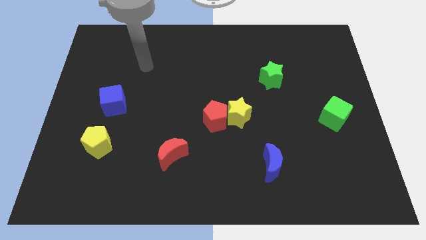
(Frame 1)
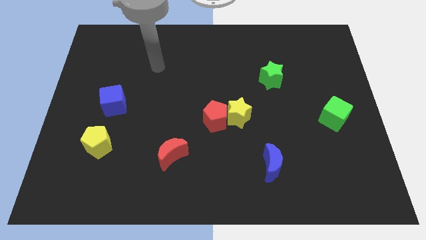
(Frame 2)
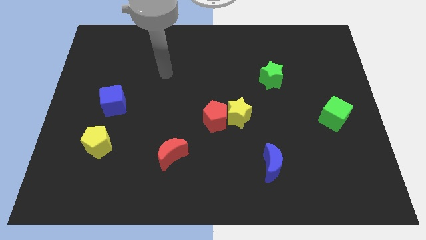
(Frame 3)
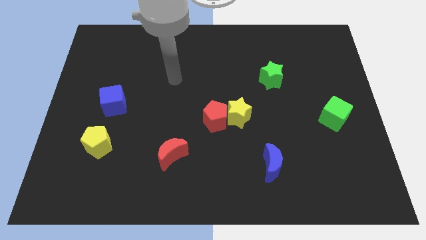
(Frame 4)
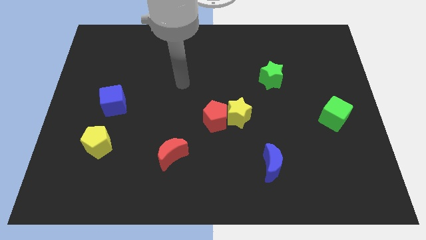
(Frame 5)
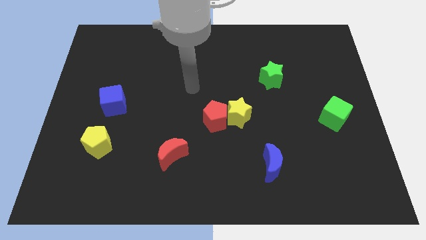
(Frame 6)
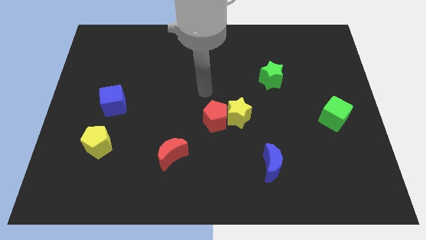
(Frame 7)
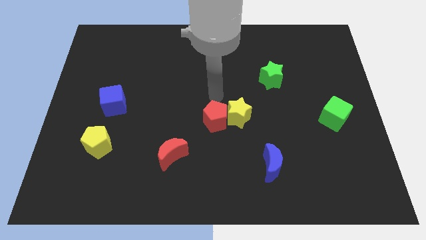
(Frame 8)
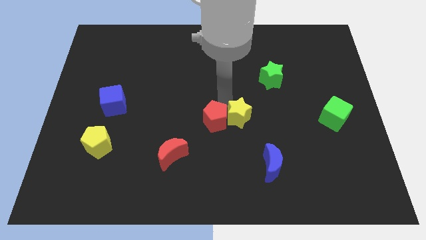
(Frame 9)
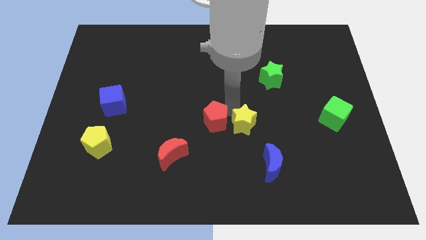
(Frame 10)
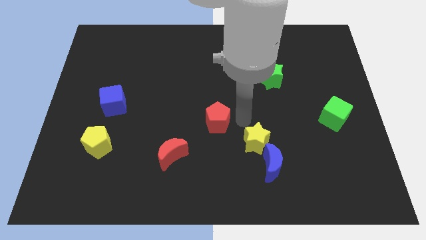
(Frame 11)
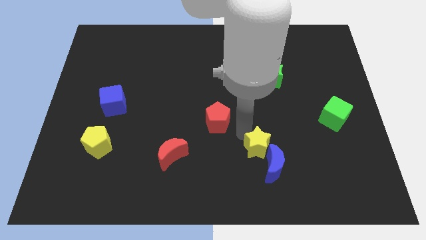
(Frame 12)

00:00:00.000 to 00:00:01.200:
pull the red pentagon apart from the yellow star

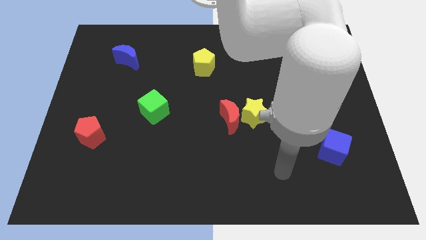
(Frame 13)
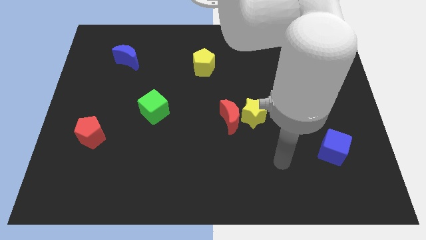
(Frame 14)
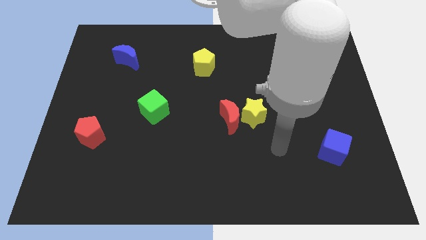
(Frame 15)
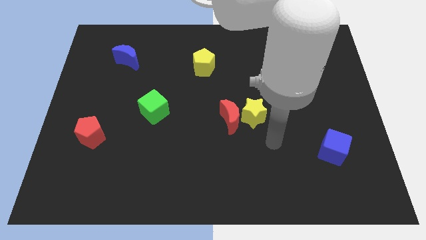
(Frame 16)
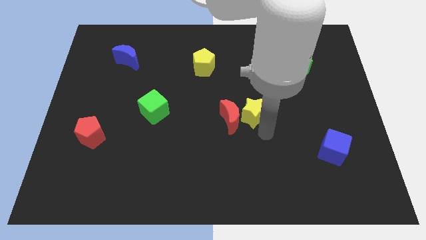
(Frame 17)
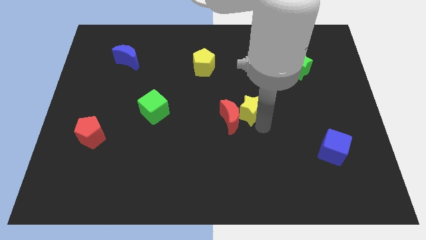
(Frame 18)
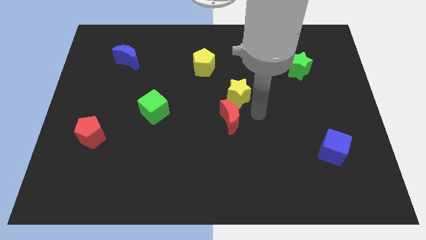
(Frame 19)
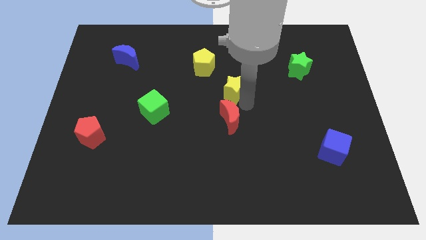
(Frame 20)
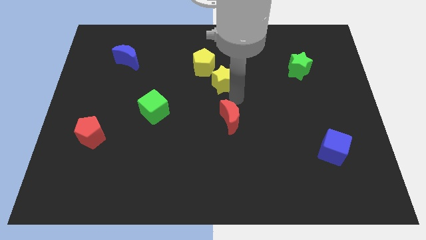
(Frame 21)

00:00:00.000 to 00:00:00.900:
pull the red moon apart from the yellow star

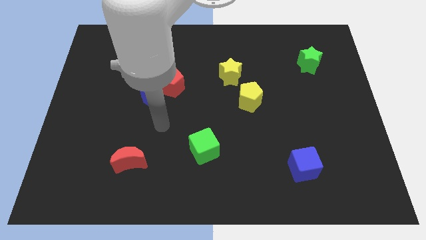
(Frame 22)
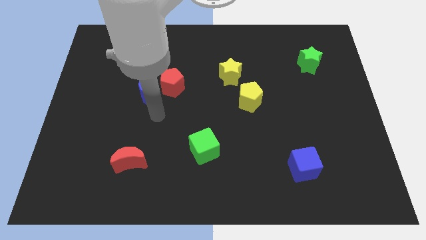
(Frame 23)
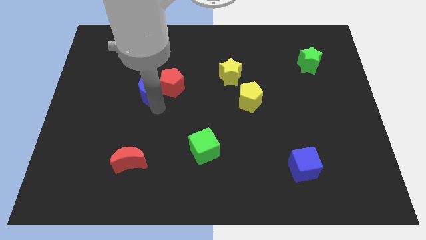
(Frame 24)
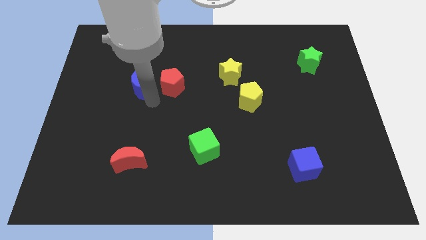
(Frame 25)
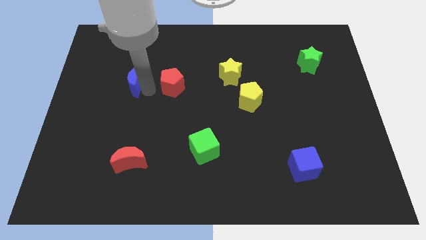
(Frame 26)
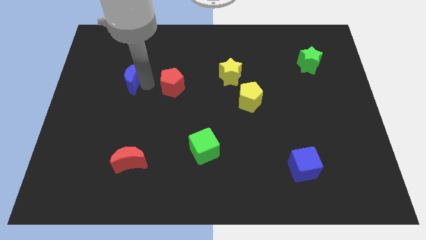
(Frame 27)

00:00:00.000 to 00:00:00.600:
separate the red pentagon from the blue moon

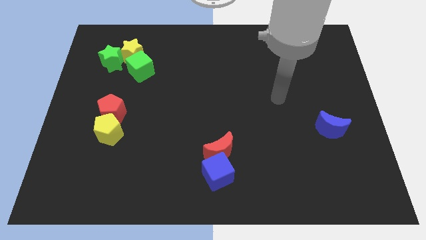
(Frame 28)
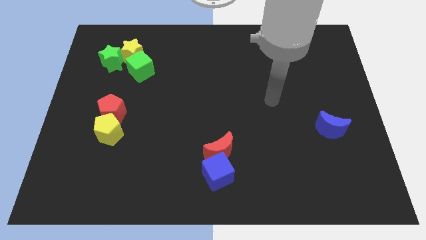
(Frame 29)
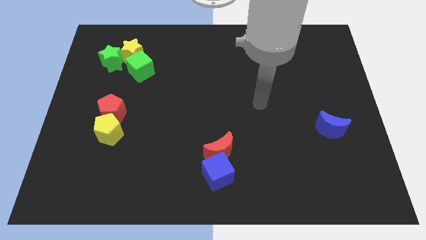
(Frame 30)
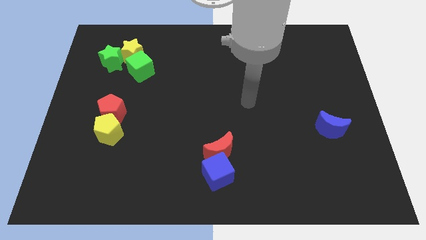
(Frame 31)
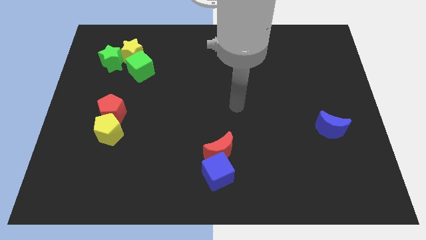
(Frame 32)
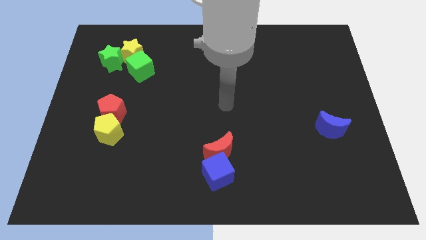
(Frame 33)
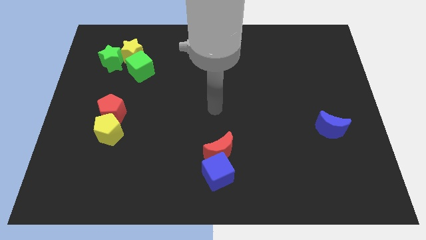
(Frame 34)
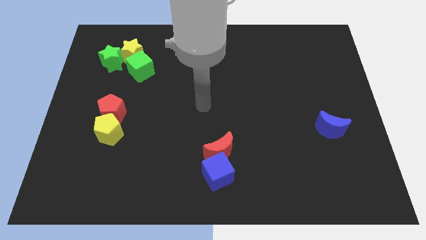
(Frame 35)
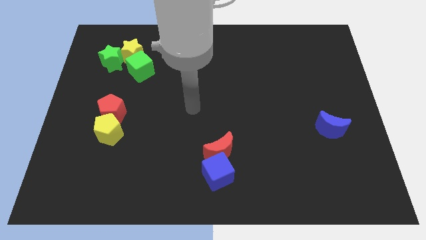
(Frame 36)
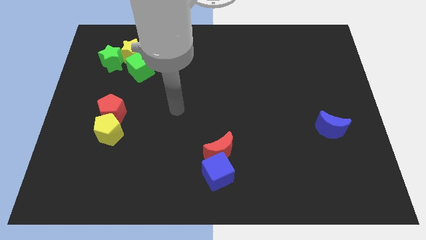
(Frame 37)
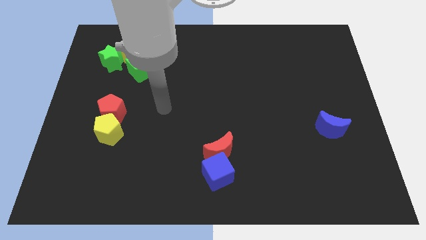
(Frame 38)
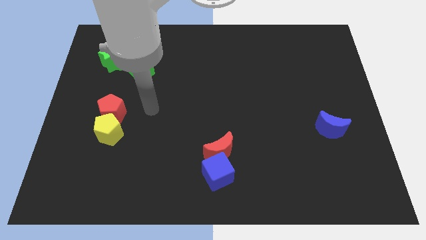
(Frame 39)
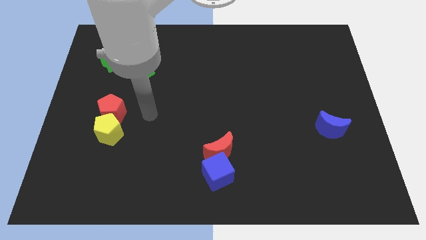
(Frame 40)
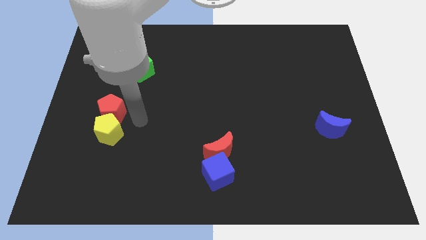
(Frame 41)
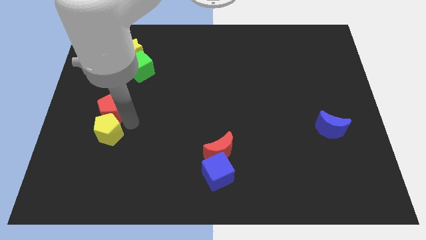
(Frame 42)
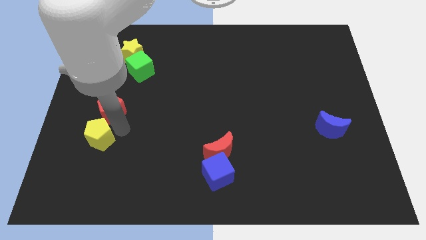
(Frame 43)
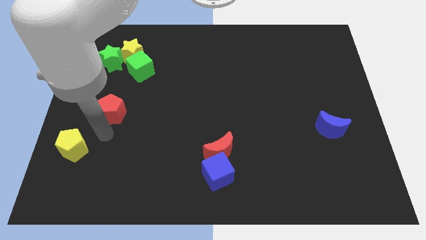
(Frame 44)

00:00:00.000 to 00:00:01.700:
separate the red pentagon from the yellow pentagon

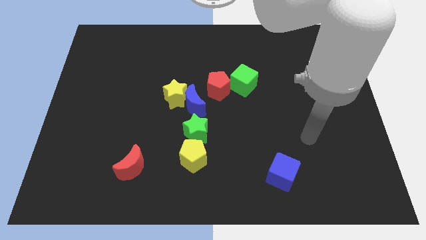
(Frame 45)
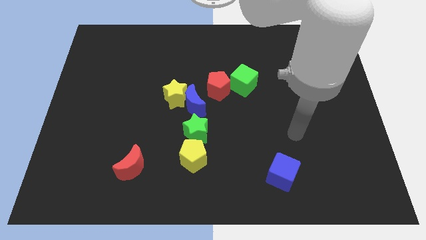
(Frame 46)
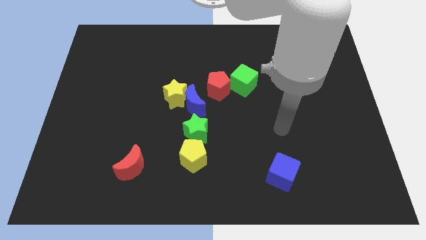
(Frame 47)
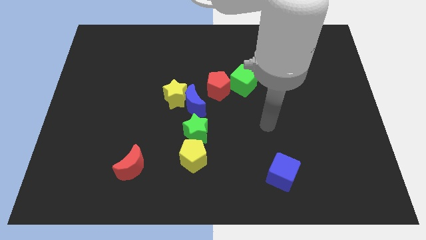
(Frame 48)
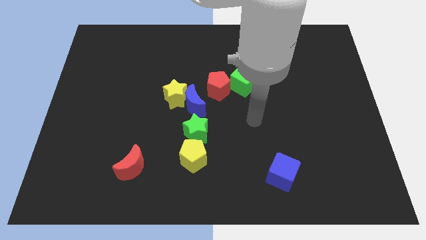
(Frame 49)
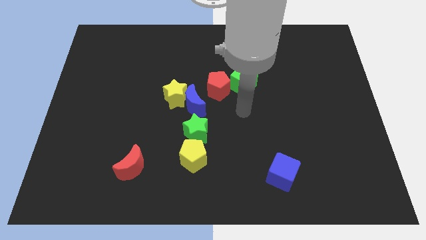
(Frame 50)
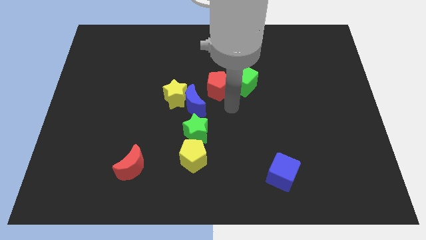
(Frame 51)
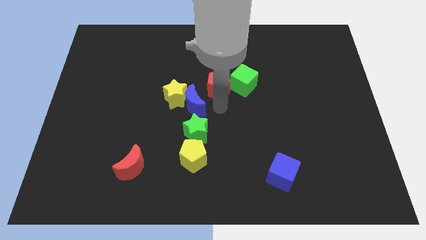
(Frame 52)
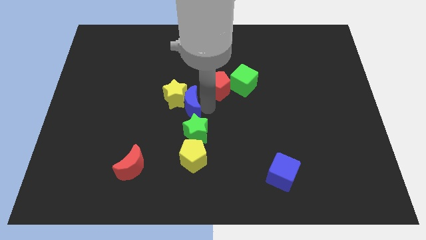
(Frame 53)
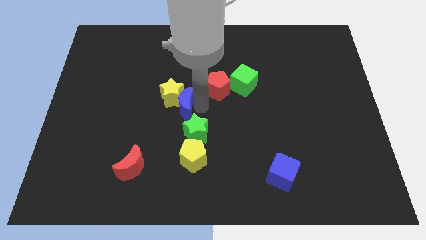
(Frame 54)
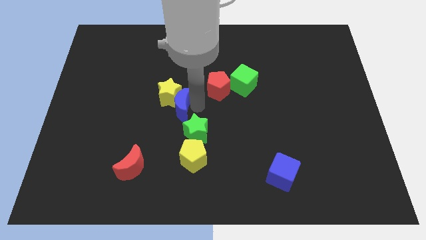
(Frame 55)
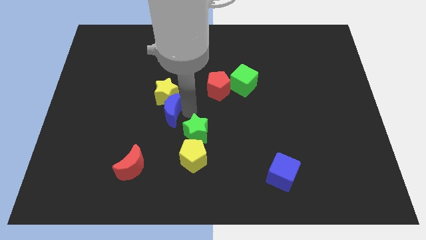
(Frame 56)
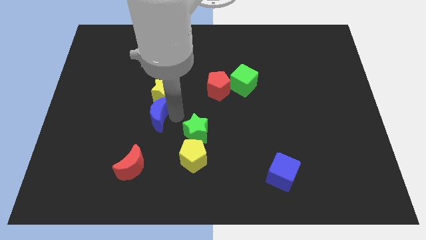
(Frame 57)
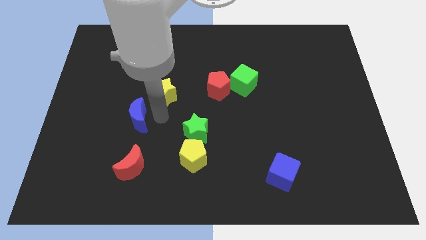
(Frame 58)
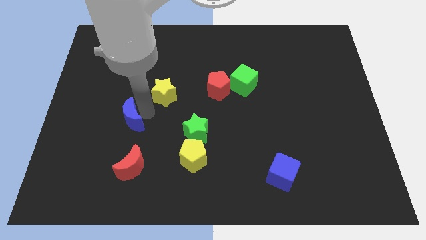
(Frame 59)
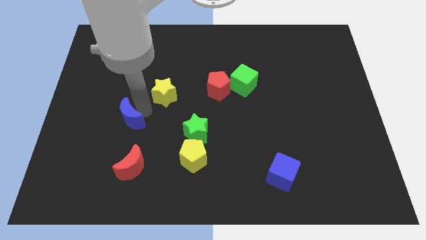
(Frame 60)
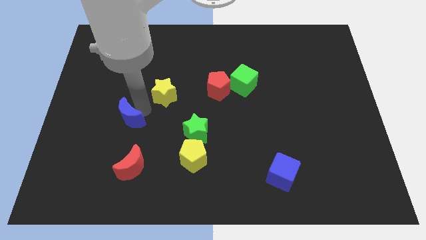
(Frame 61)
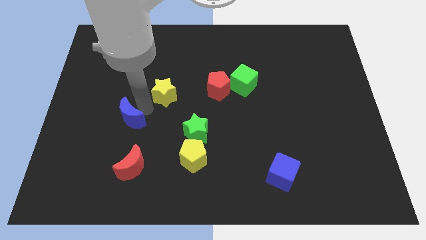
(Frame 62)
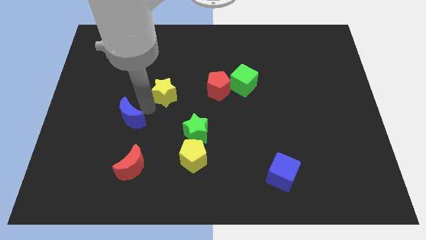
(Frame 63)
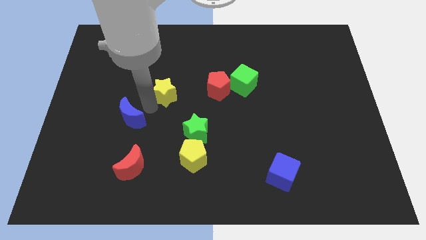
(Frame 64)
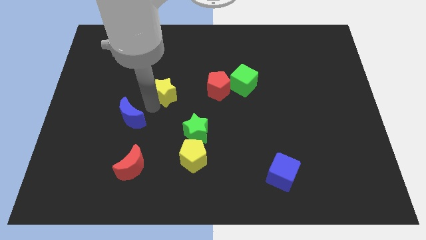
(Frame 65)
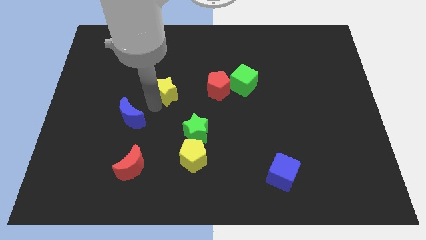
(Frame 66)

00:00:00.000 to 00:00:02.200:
move the yellow star away from the blue moon

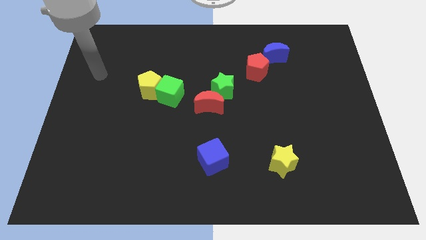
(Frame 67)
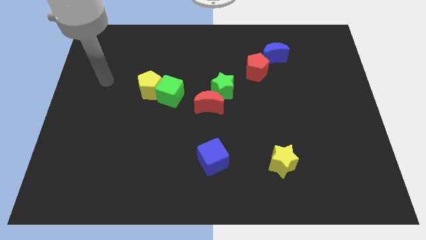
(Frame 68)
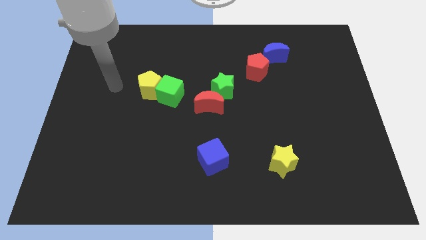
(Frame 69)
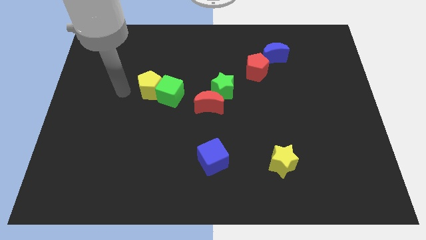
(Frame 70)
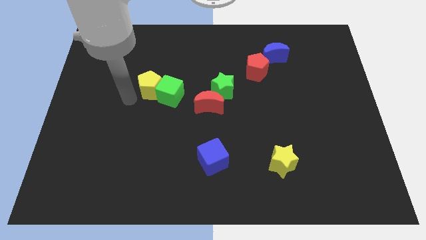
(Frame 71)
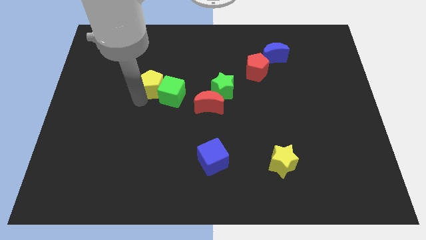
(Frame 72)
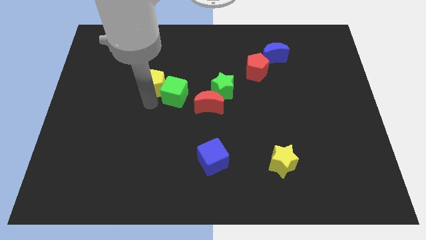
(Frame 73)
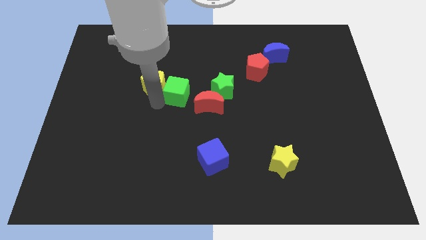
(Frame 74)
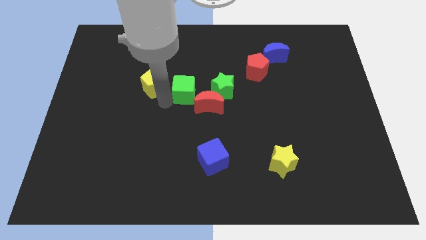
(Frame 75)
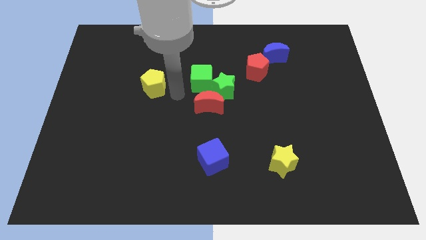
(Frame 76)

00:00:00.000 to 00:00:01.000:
separate the yellow pentagon from the green cube

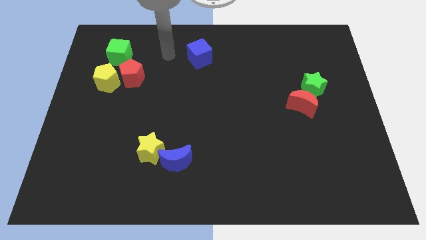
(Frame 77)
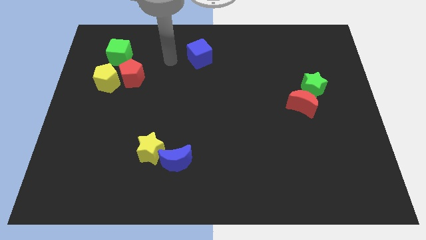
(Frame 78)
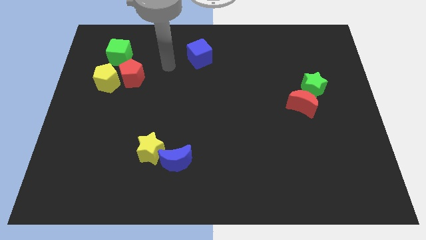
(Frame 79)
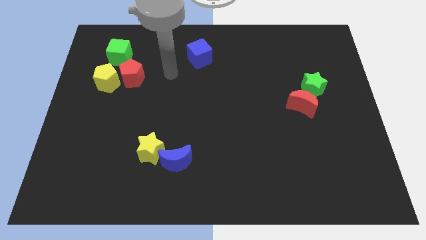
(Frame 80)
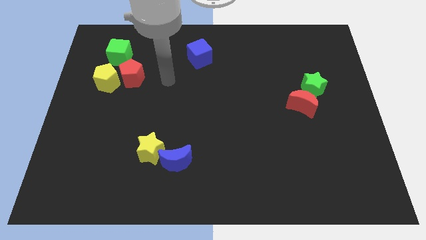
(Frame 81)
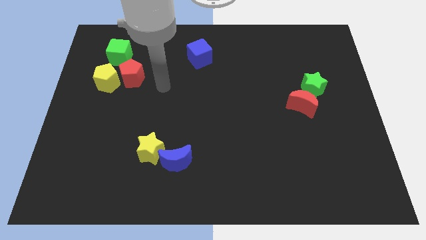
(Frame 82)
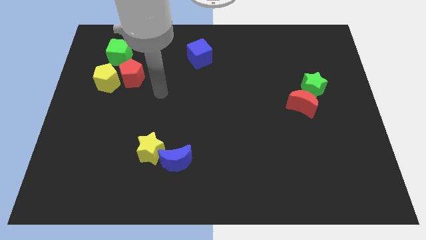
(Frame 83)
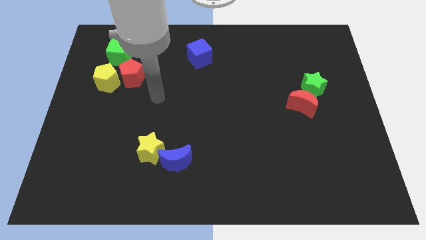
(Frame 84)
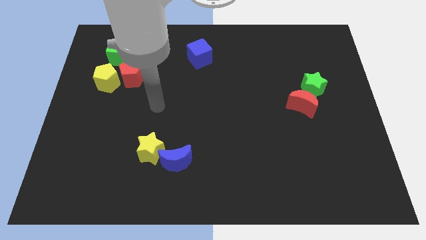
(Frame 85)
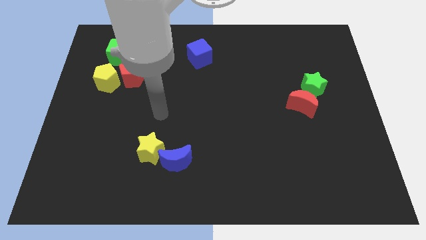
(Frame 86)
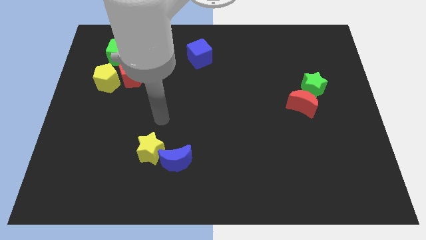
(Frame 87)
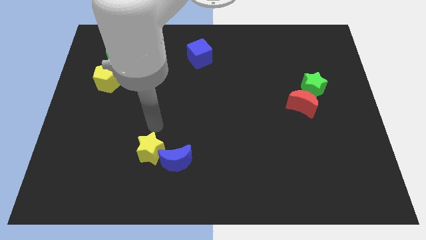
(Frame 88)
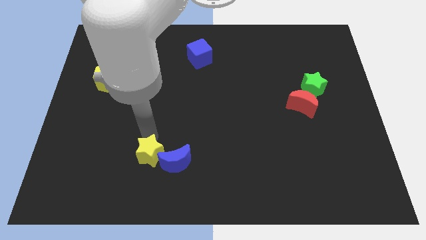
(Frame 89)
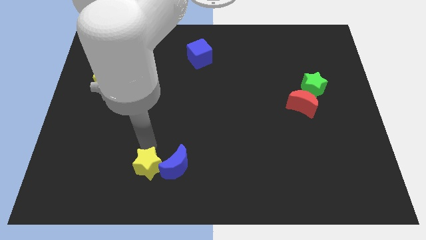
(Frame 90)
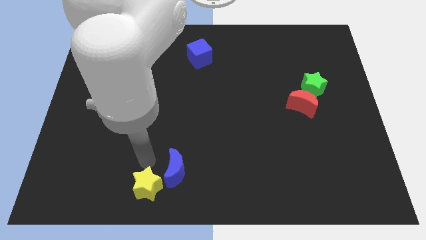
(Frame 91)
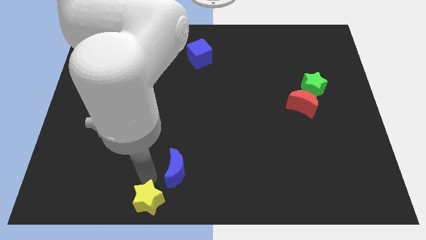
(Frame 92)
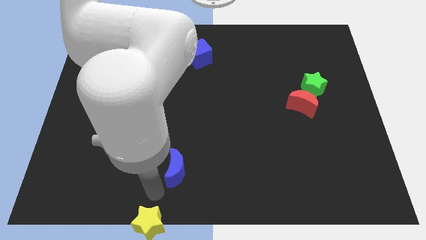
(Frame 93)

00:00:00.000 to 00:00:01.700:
separate the blue moon from the yellow star
